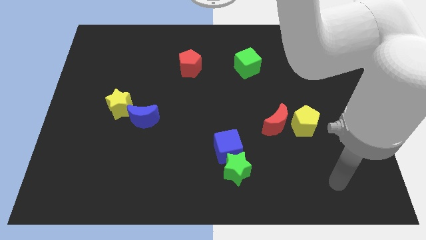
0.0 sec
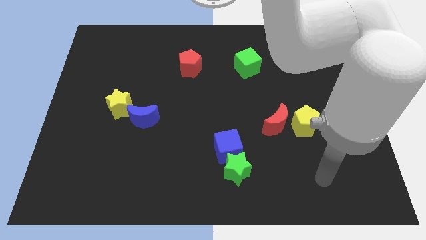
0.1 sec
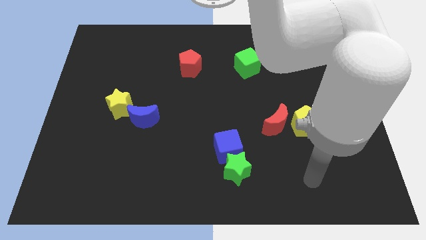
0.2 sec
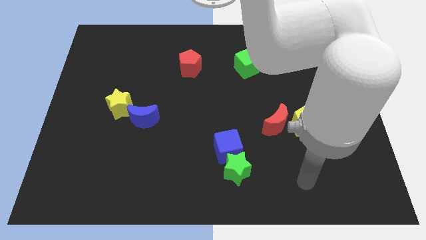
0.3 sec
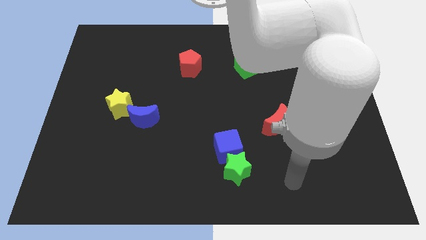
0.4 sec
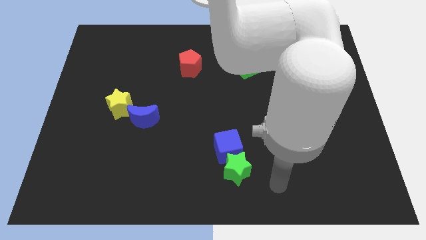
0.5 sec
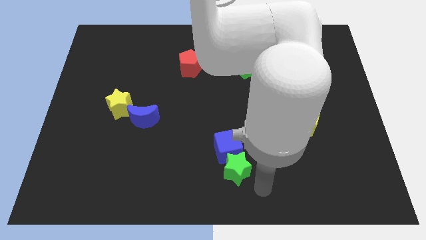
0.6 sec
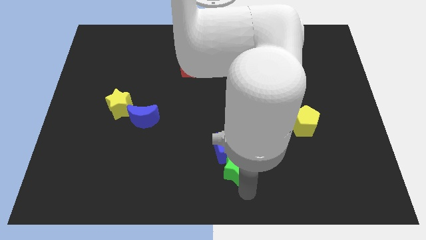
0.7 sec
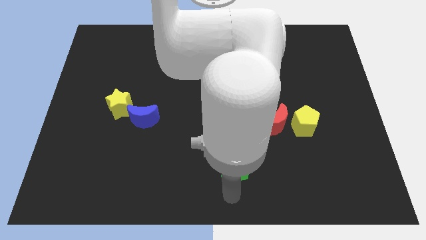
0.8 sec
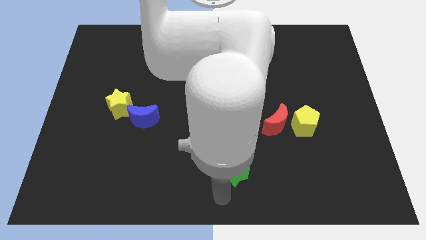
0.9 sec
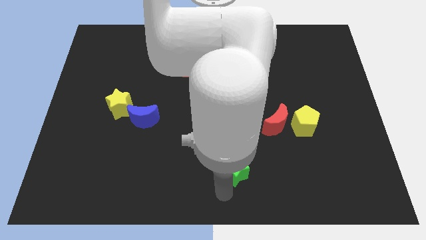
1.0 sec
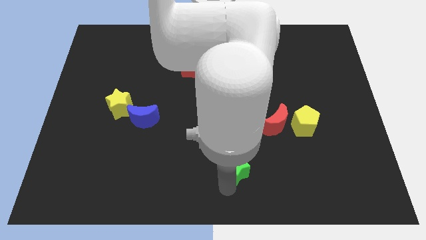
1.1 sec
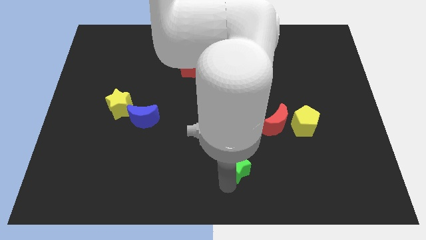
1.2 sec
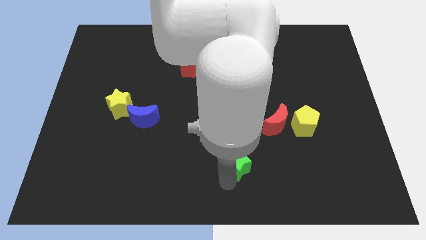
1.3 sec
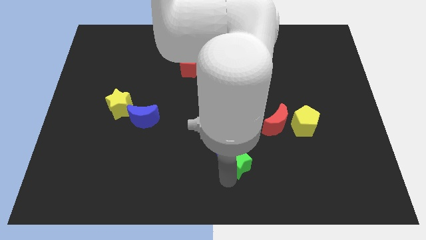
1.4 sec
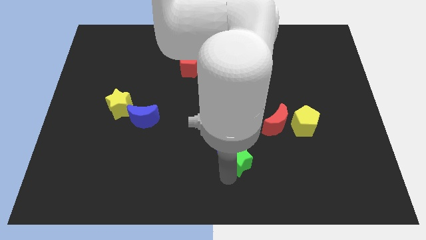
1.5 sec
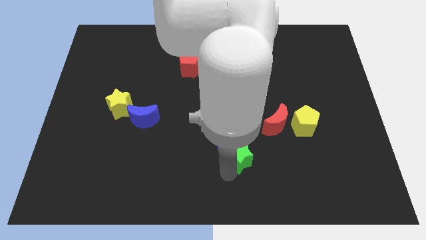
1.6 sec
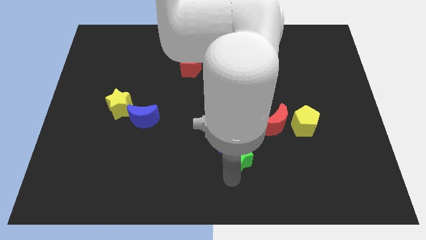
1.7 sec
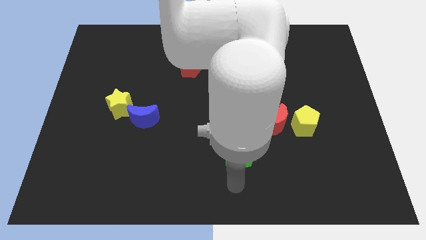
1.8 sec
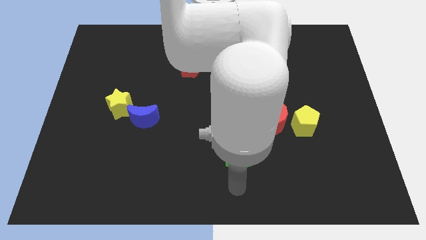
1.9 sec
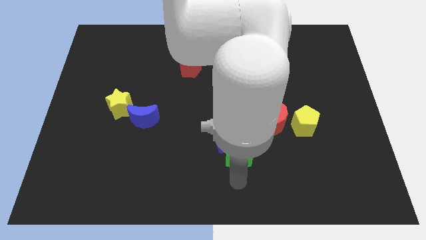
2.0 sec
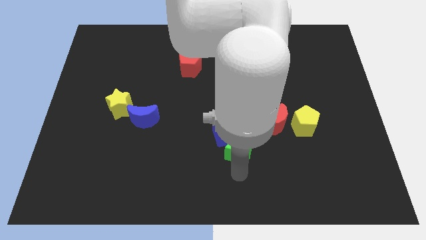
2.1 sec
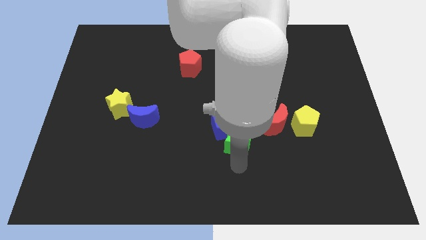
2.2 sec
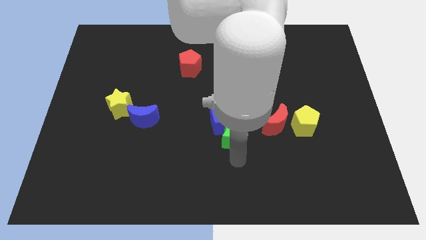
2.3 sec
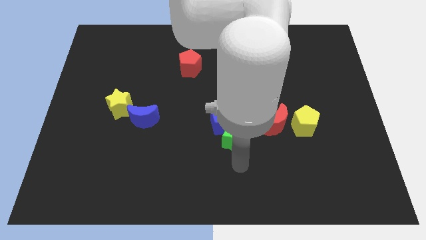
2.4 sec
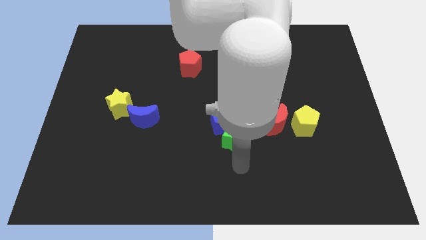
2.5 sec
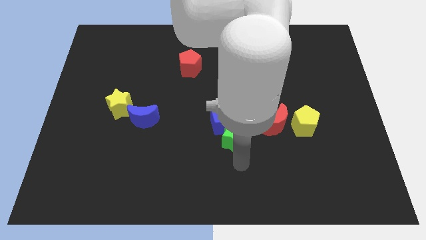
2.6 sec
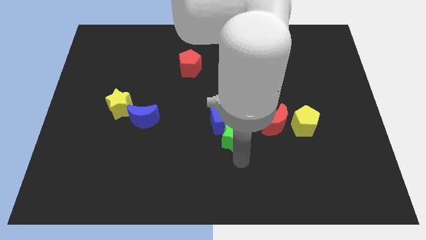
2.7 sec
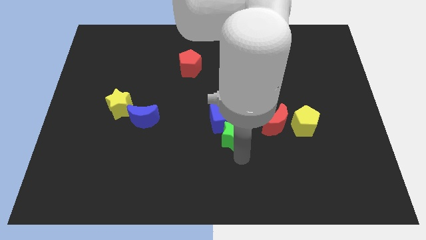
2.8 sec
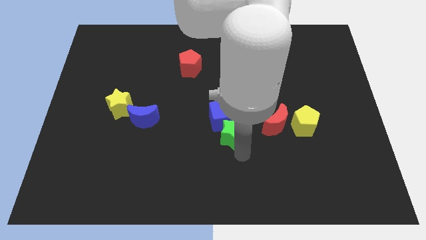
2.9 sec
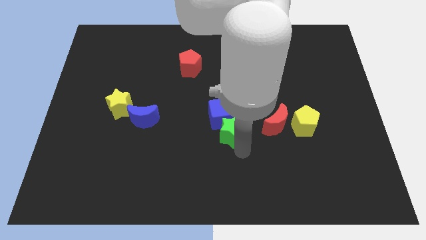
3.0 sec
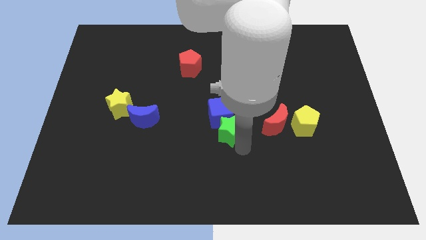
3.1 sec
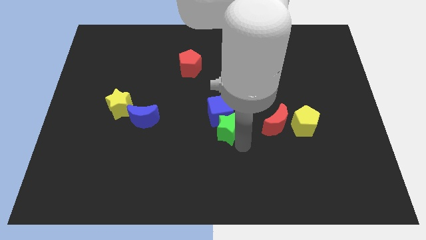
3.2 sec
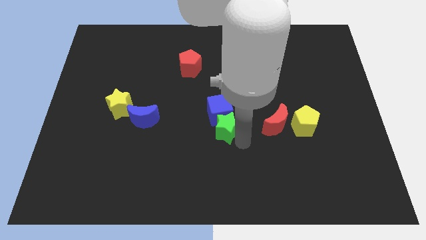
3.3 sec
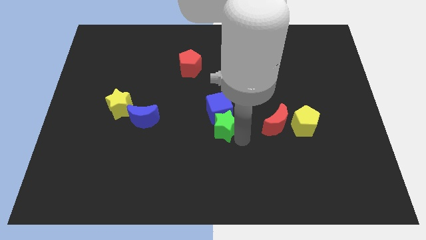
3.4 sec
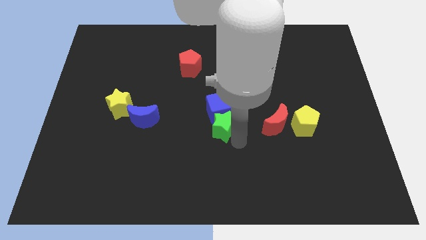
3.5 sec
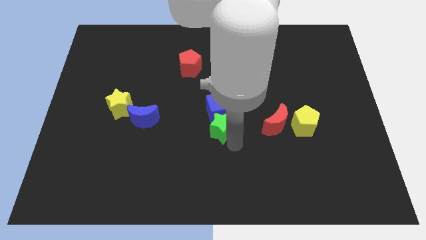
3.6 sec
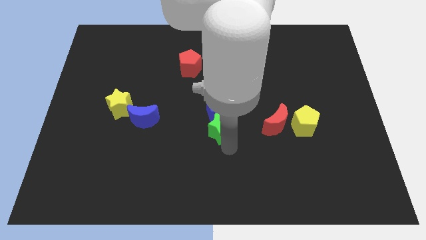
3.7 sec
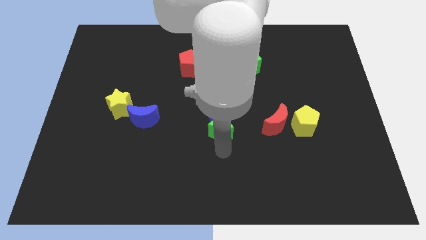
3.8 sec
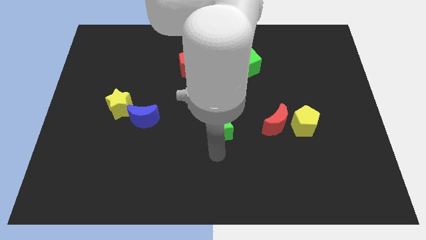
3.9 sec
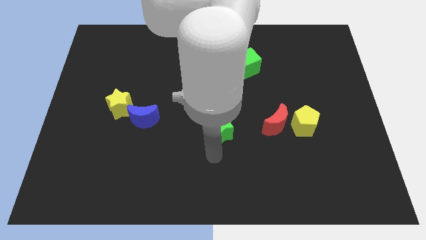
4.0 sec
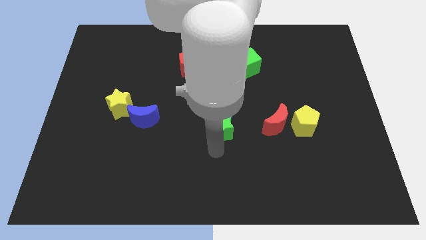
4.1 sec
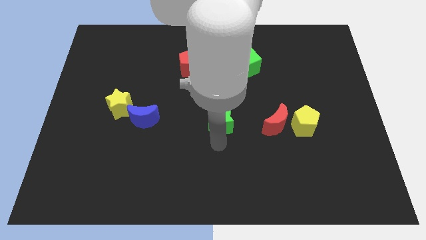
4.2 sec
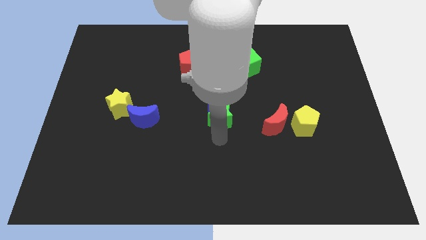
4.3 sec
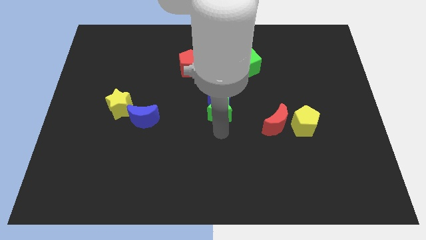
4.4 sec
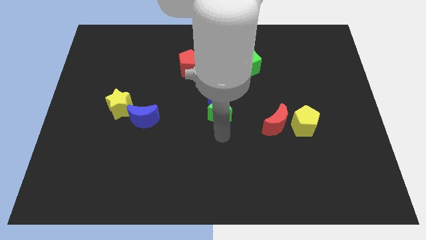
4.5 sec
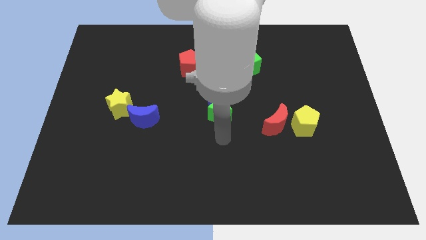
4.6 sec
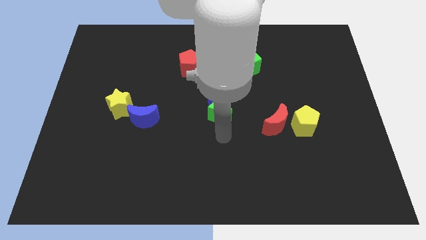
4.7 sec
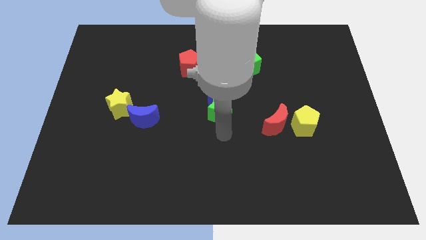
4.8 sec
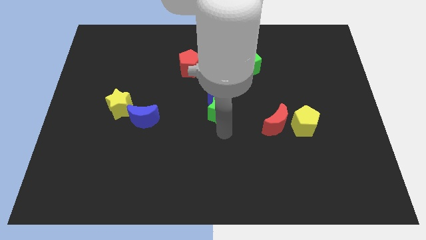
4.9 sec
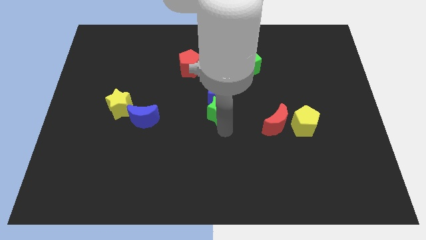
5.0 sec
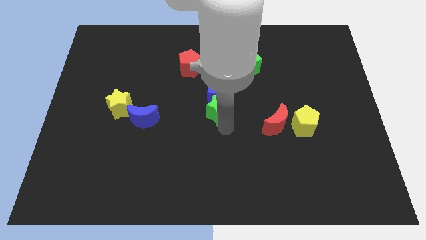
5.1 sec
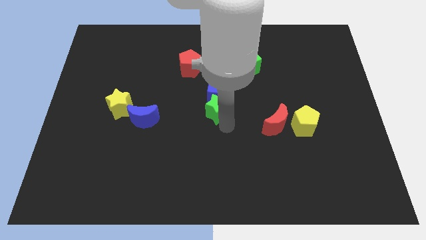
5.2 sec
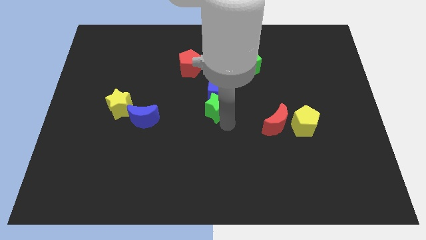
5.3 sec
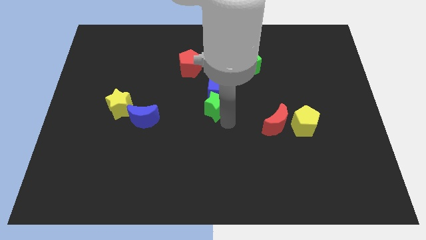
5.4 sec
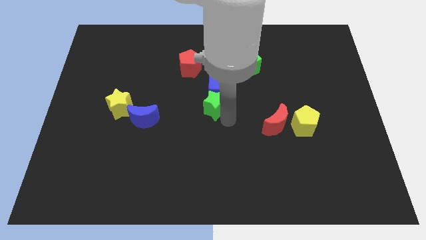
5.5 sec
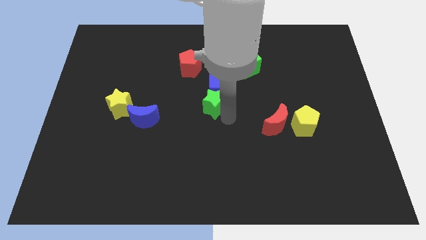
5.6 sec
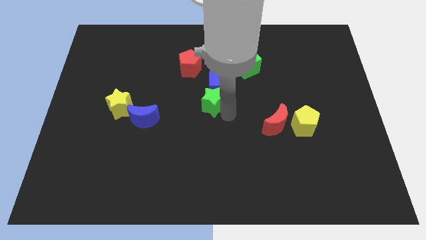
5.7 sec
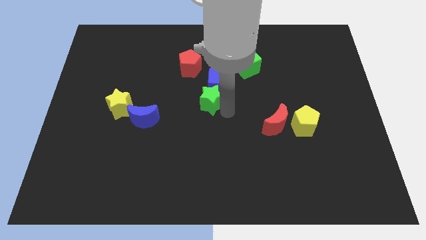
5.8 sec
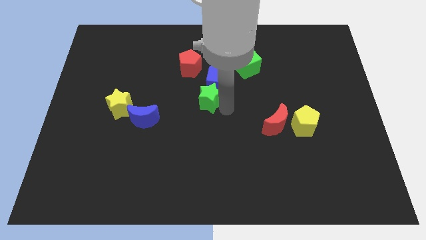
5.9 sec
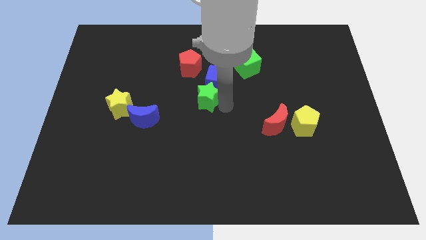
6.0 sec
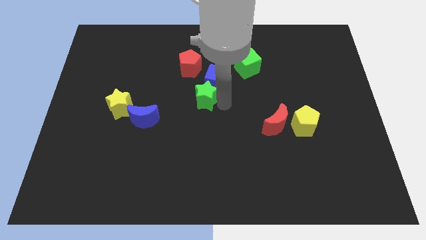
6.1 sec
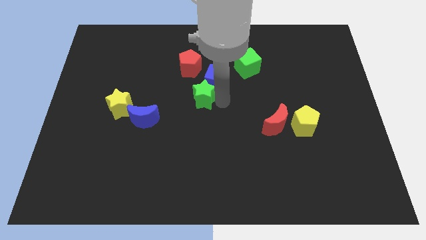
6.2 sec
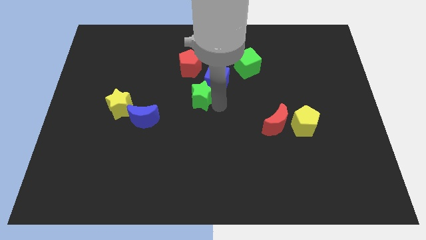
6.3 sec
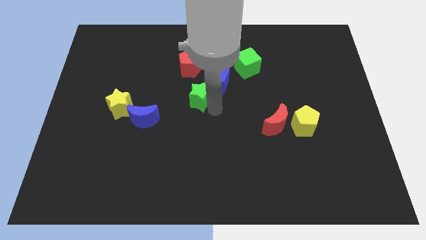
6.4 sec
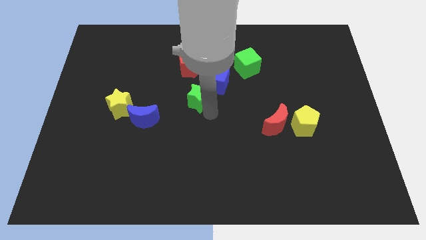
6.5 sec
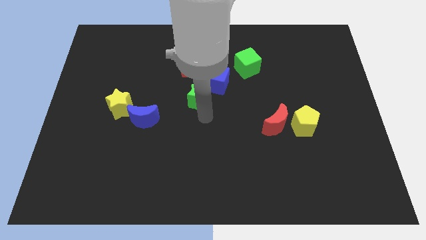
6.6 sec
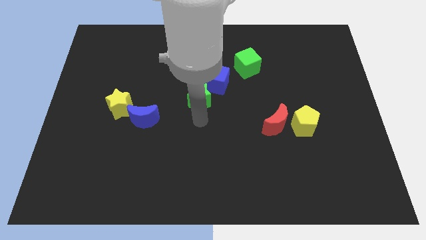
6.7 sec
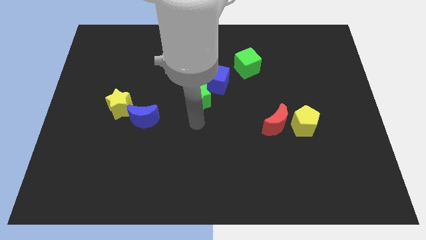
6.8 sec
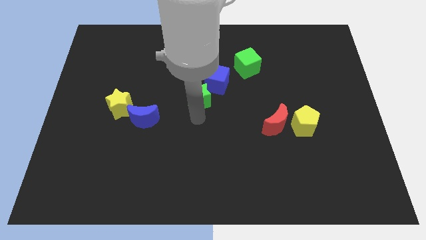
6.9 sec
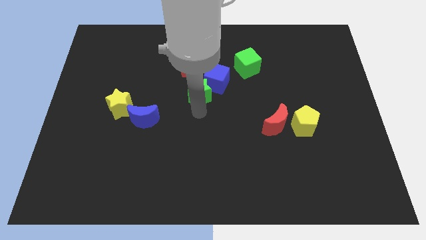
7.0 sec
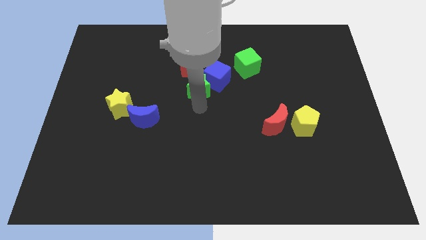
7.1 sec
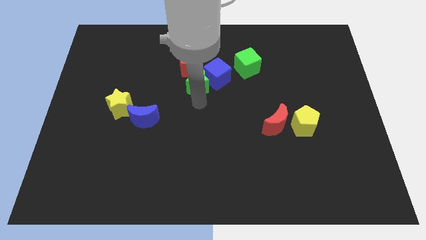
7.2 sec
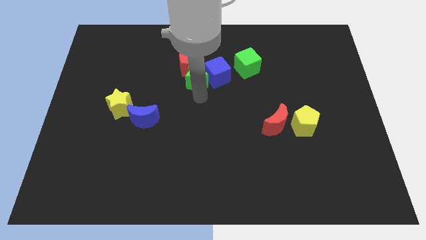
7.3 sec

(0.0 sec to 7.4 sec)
push the green star next to the red pentagon

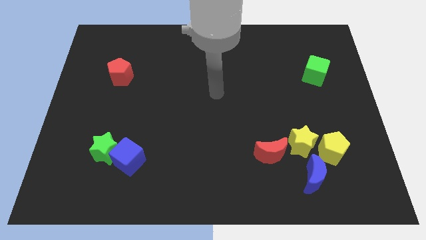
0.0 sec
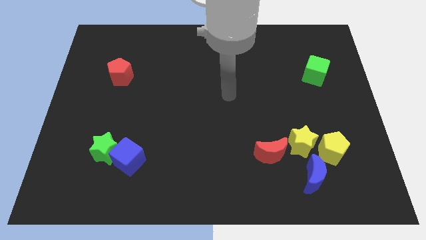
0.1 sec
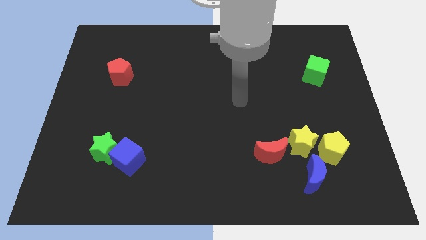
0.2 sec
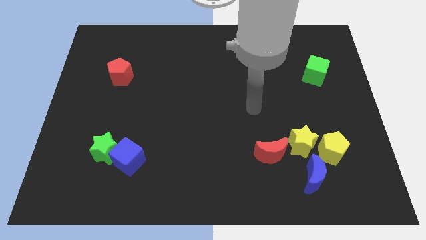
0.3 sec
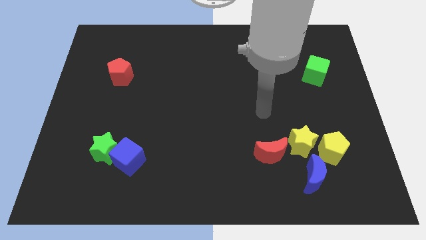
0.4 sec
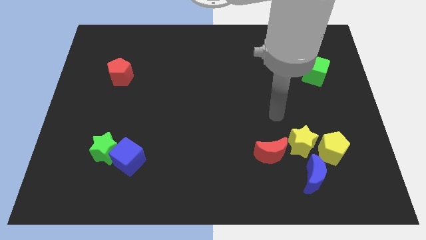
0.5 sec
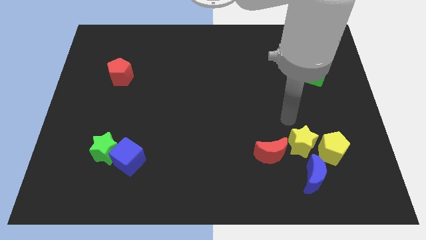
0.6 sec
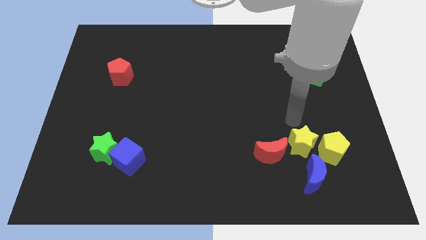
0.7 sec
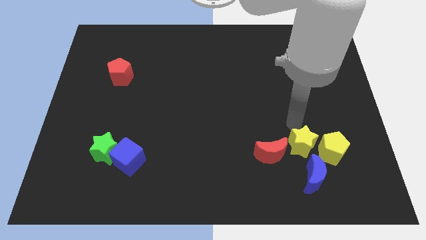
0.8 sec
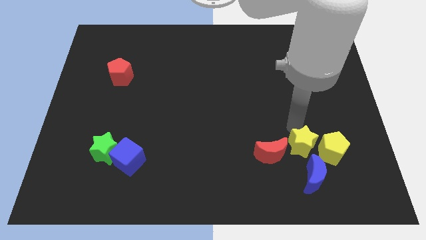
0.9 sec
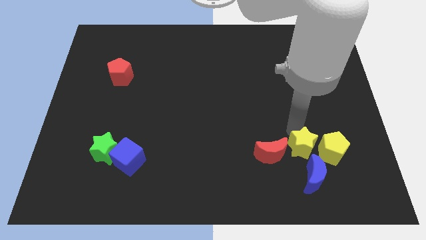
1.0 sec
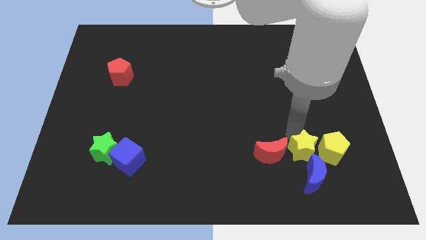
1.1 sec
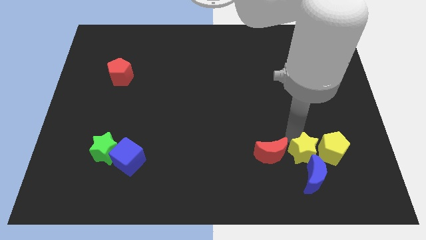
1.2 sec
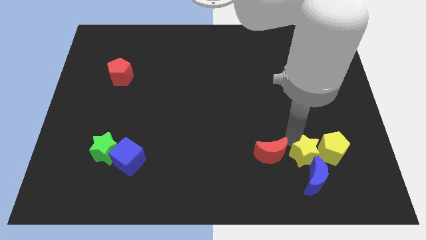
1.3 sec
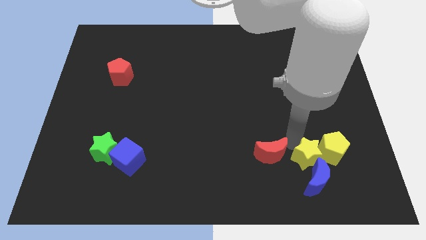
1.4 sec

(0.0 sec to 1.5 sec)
push the yellow star to the blue moon
